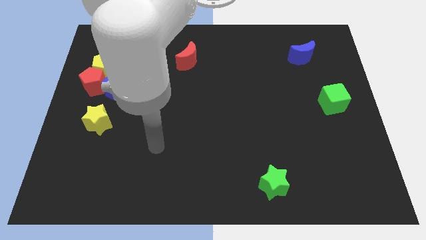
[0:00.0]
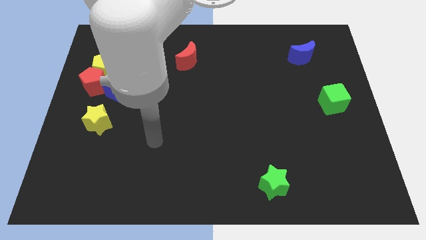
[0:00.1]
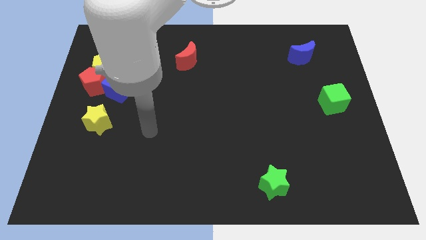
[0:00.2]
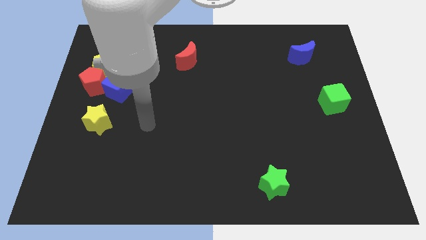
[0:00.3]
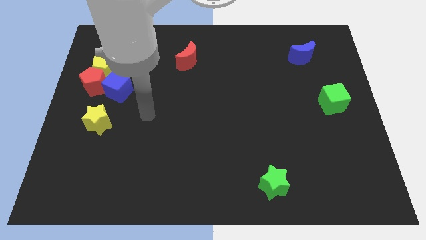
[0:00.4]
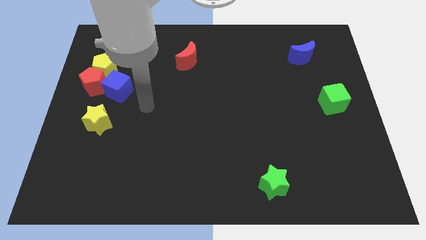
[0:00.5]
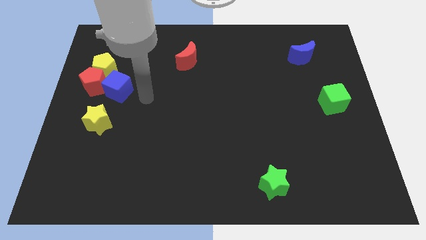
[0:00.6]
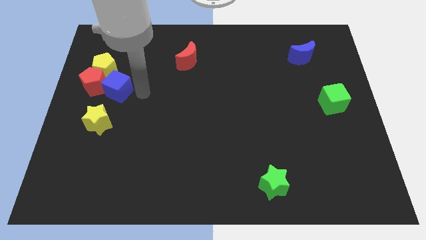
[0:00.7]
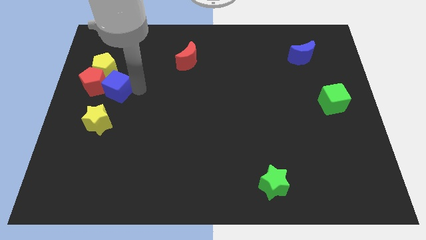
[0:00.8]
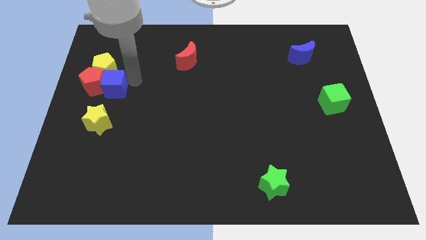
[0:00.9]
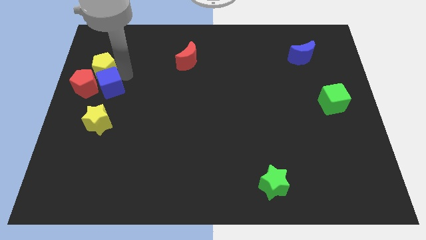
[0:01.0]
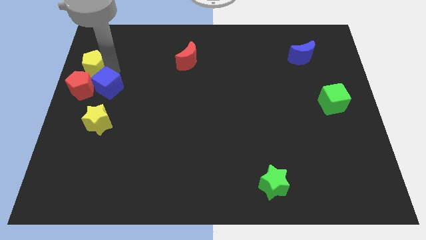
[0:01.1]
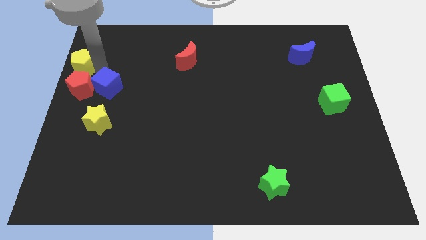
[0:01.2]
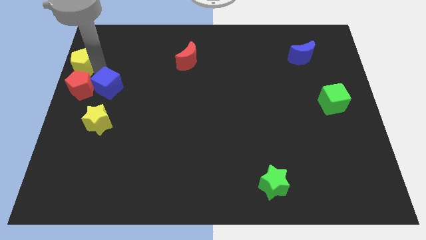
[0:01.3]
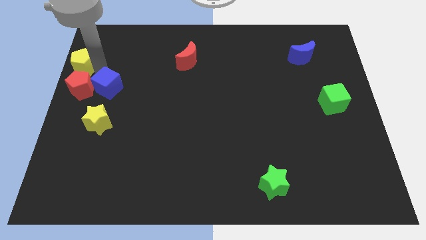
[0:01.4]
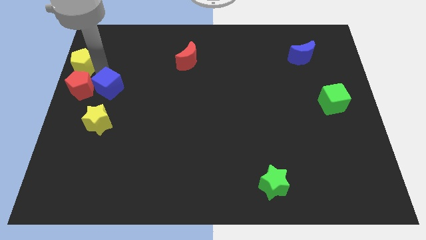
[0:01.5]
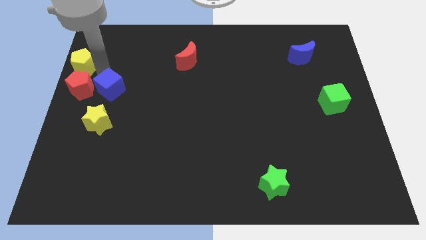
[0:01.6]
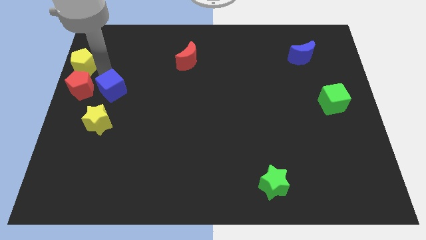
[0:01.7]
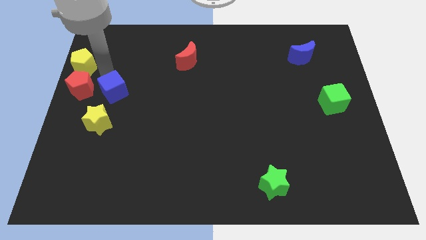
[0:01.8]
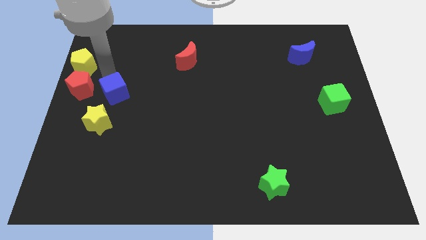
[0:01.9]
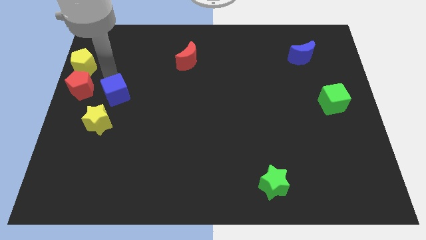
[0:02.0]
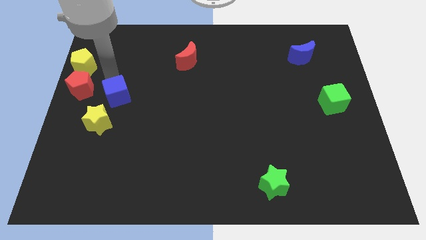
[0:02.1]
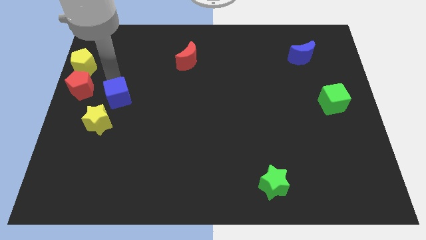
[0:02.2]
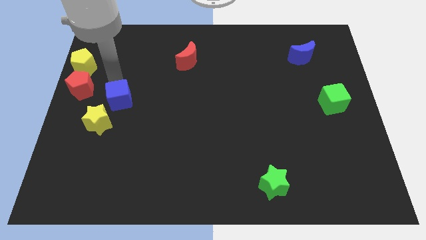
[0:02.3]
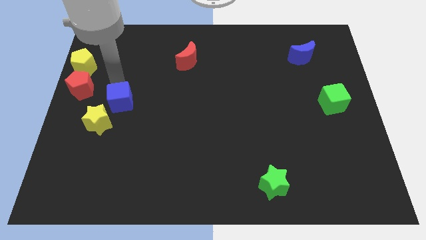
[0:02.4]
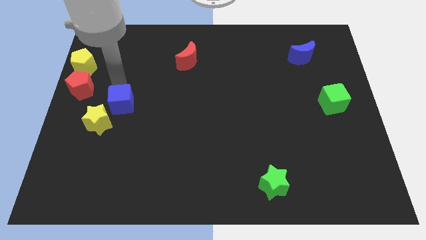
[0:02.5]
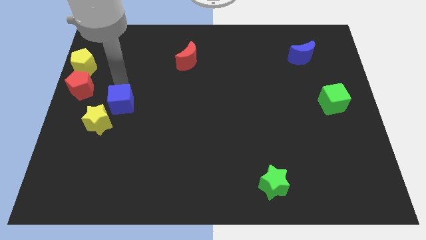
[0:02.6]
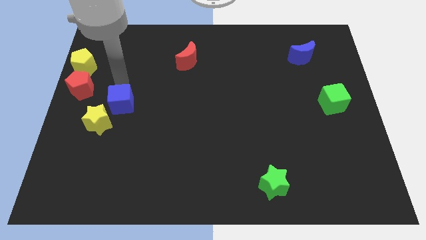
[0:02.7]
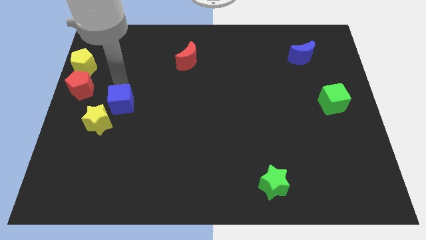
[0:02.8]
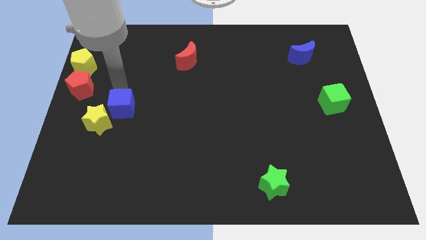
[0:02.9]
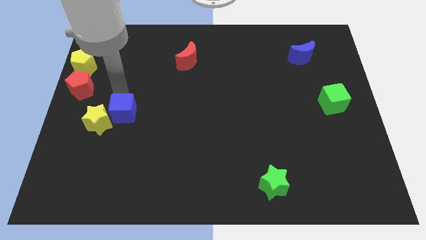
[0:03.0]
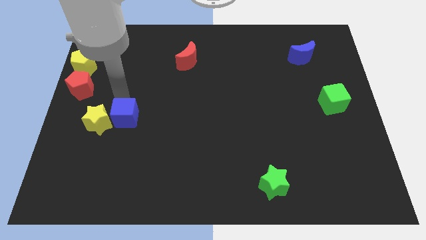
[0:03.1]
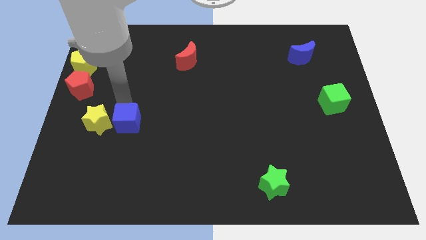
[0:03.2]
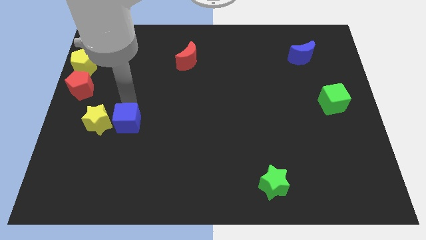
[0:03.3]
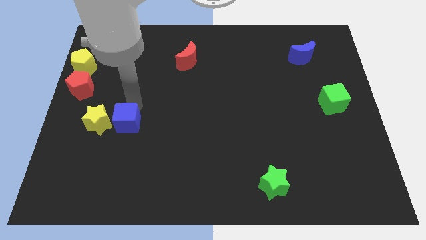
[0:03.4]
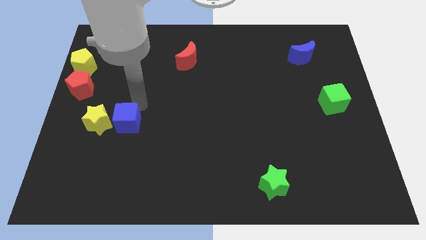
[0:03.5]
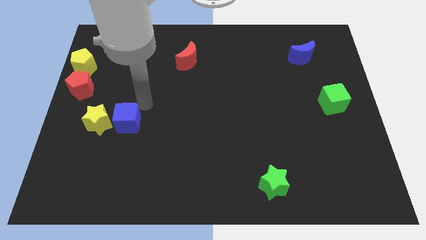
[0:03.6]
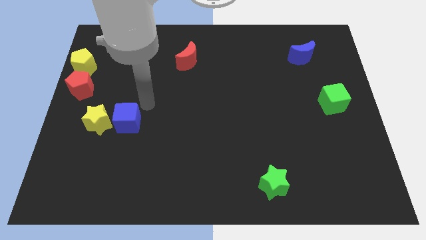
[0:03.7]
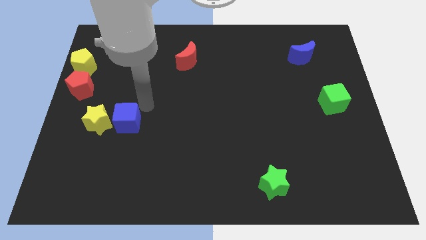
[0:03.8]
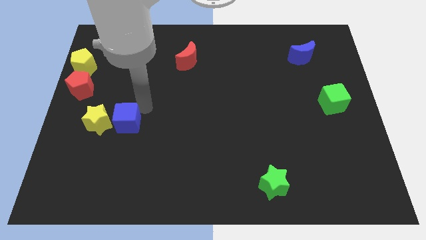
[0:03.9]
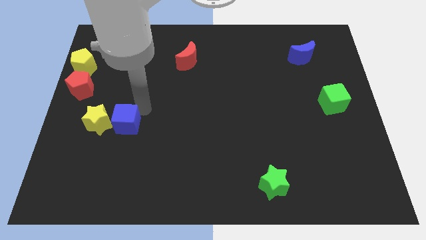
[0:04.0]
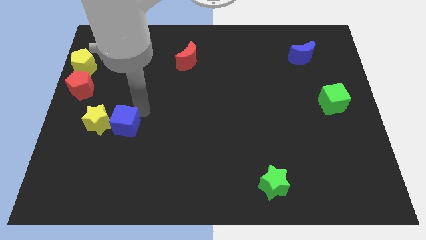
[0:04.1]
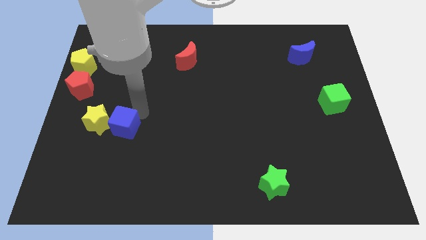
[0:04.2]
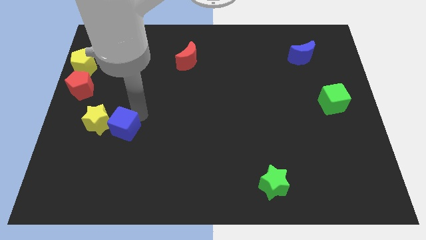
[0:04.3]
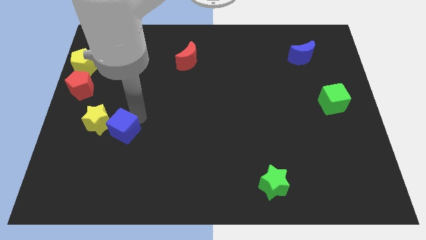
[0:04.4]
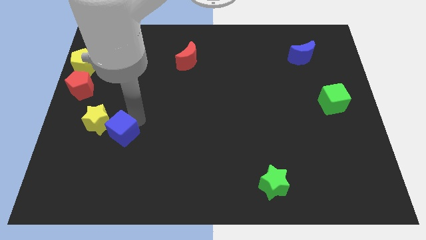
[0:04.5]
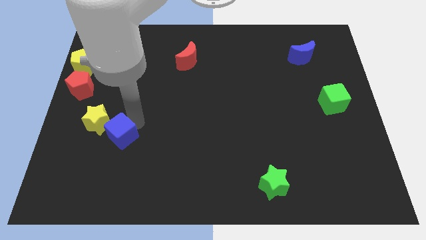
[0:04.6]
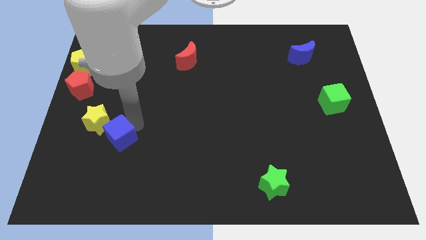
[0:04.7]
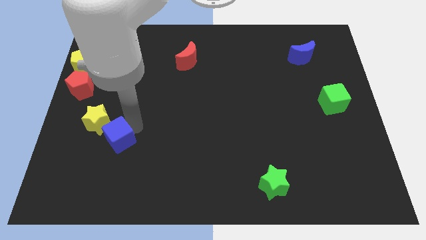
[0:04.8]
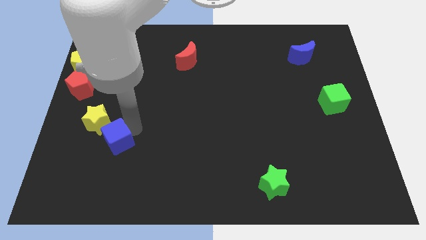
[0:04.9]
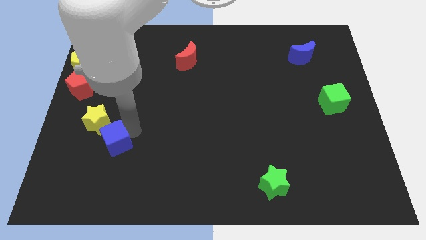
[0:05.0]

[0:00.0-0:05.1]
put the blue cube to the bottom side of the yellow star

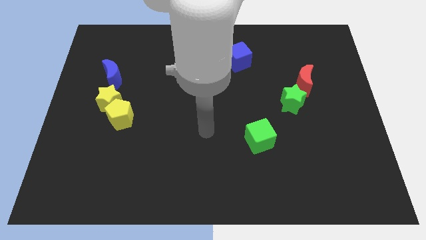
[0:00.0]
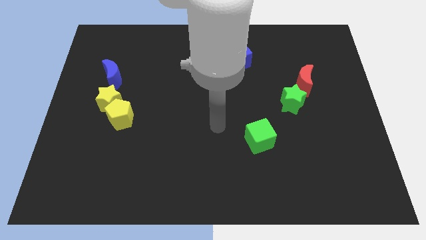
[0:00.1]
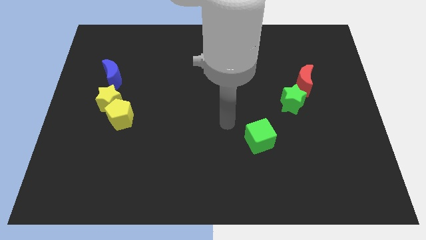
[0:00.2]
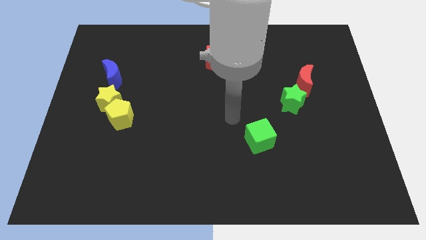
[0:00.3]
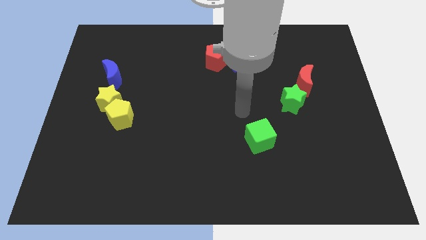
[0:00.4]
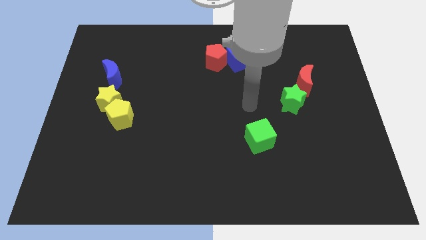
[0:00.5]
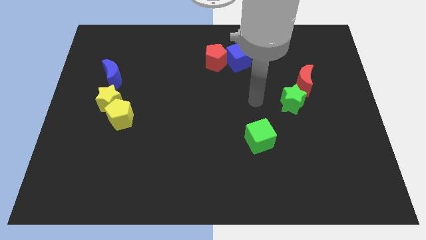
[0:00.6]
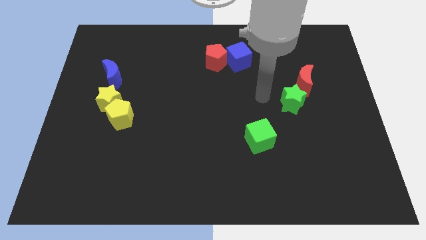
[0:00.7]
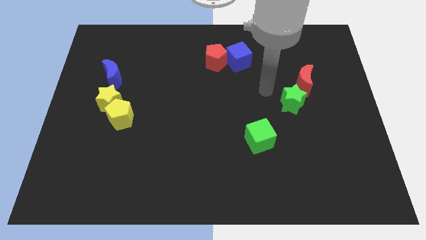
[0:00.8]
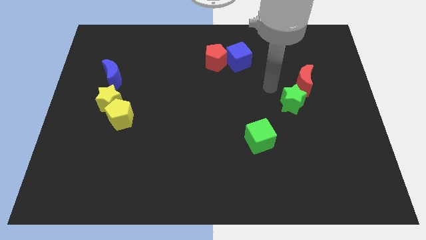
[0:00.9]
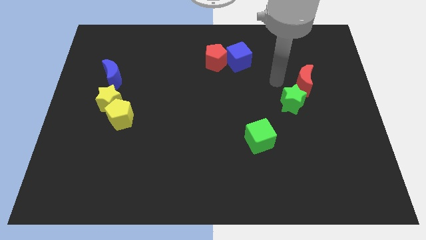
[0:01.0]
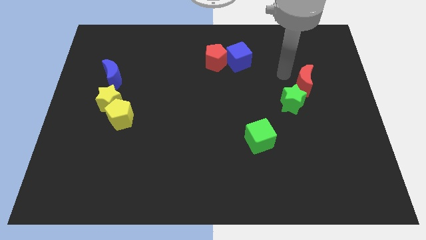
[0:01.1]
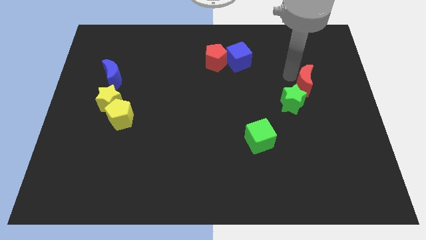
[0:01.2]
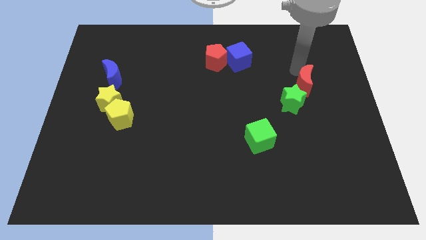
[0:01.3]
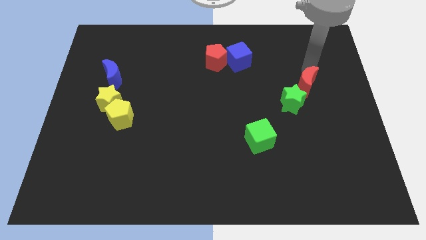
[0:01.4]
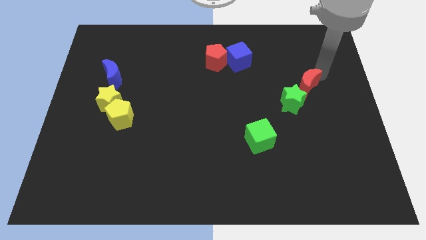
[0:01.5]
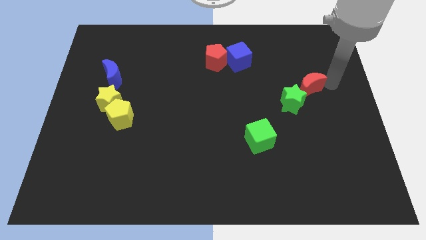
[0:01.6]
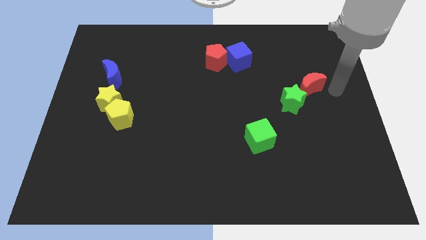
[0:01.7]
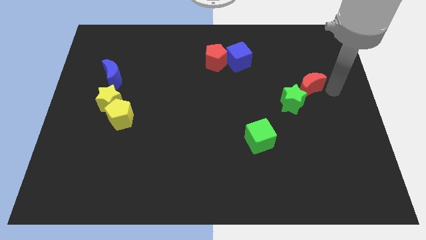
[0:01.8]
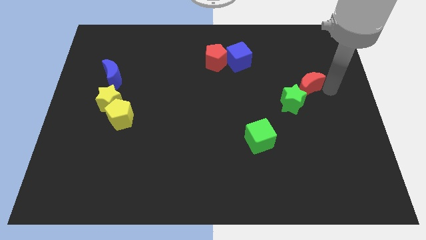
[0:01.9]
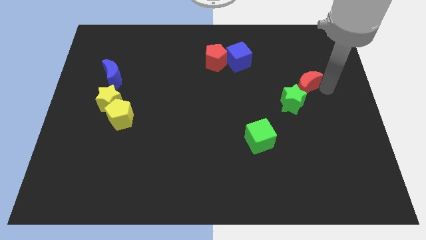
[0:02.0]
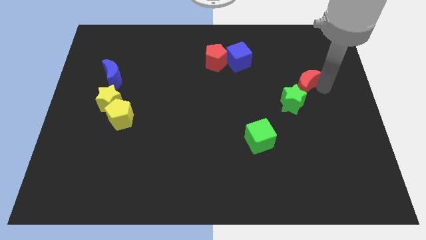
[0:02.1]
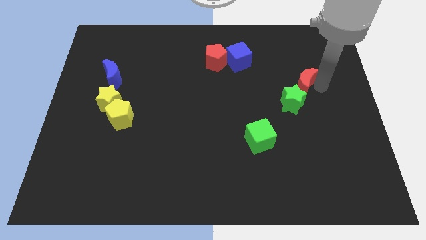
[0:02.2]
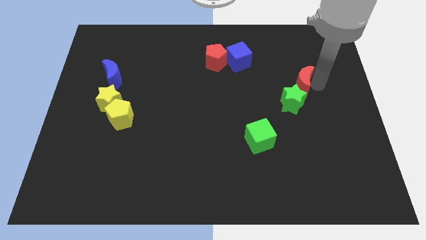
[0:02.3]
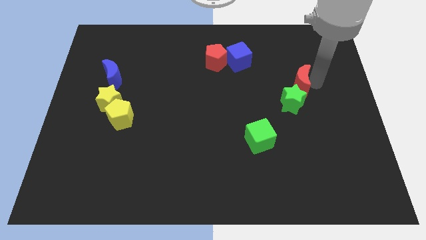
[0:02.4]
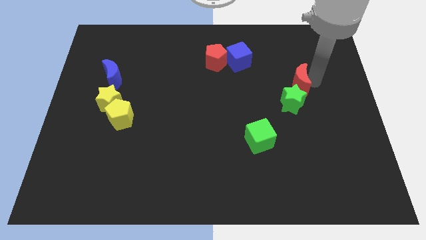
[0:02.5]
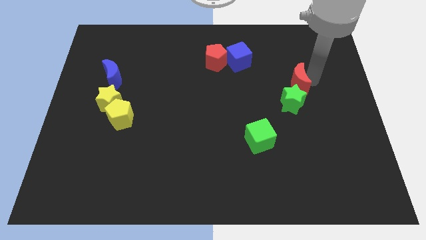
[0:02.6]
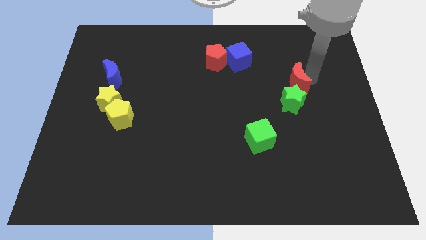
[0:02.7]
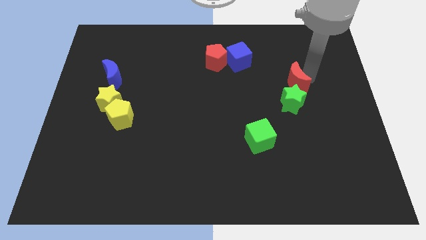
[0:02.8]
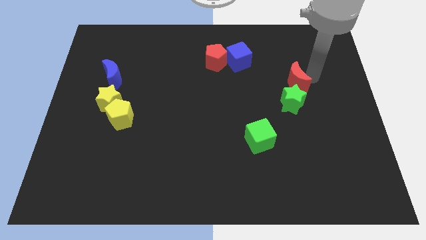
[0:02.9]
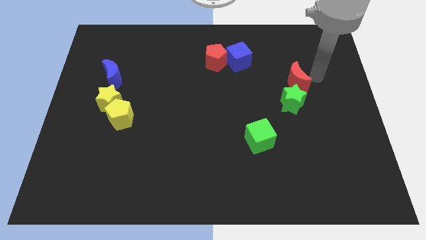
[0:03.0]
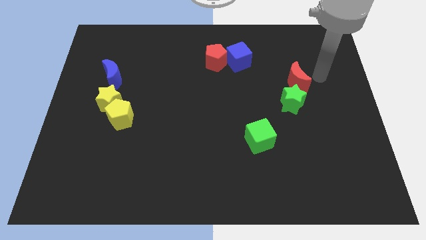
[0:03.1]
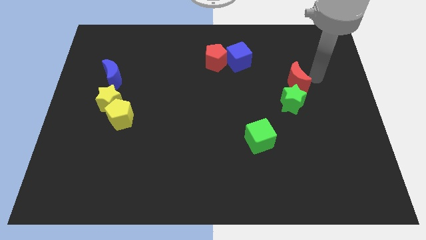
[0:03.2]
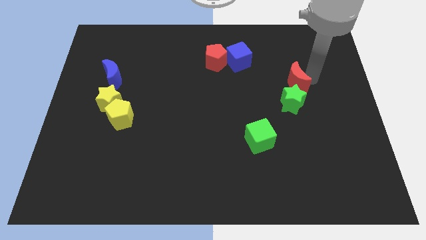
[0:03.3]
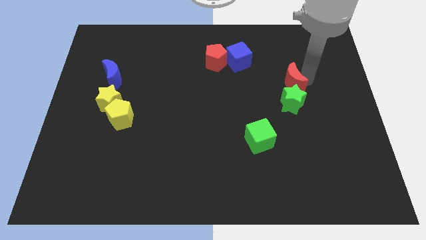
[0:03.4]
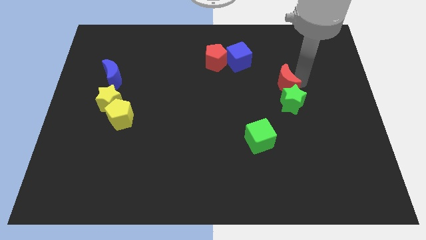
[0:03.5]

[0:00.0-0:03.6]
move the red moon diagonally up and to the left of the green star
